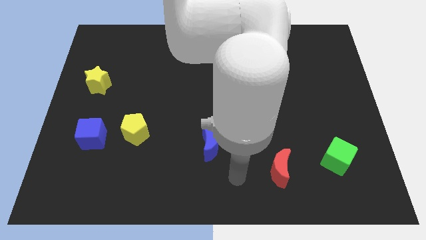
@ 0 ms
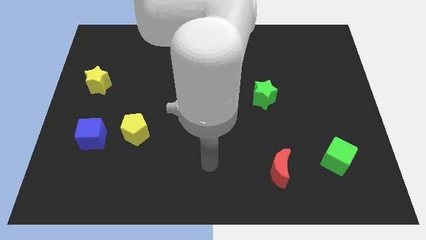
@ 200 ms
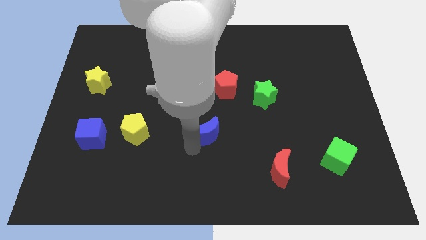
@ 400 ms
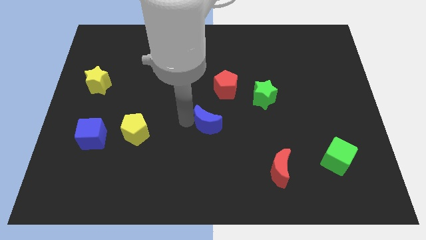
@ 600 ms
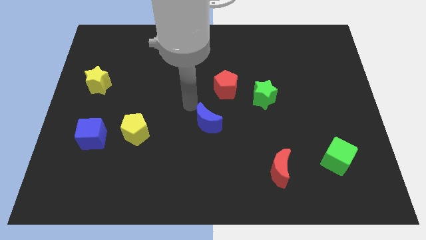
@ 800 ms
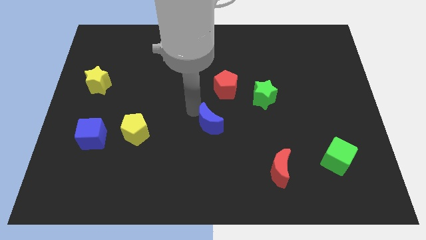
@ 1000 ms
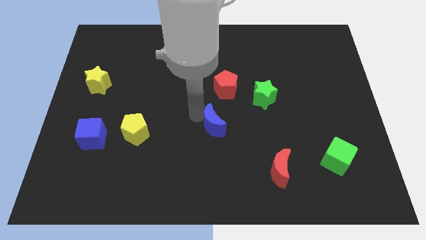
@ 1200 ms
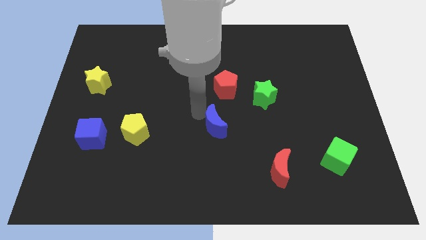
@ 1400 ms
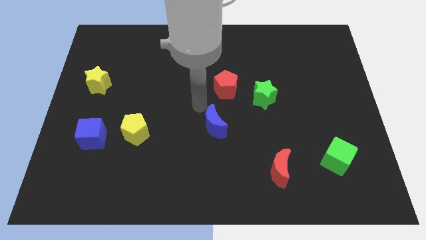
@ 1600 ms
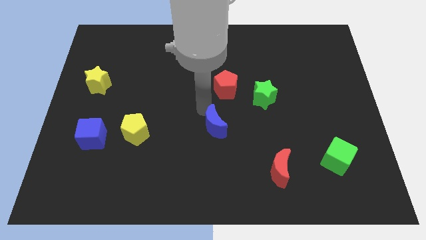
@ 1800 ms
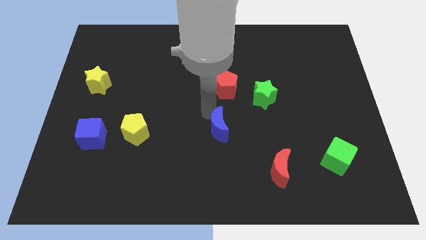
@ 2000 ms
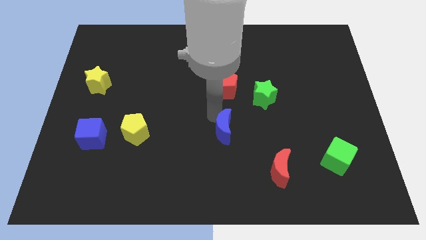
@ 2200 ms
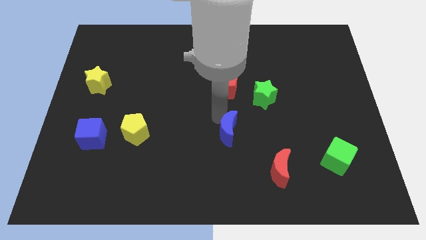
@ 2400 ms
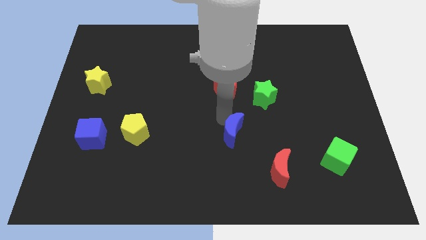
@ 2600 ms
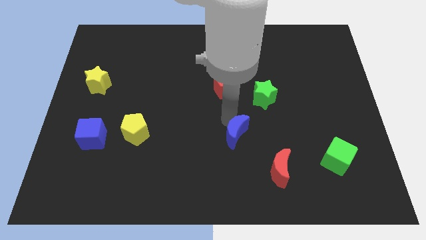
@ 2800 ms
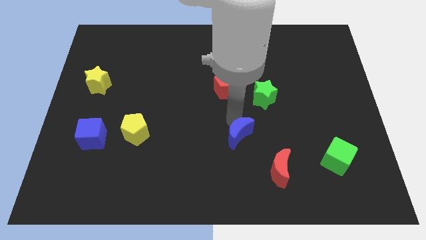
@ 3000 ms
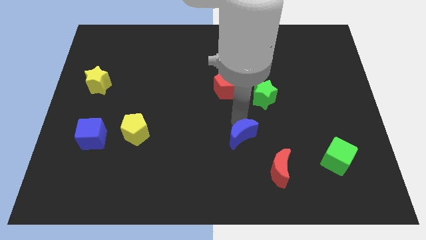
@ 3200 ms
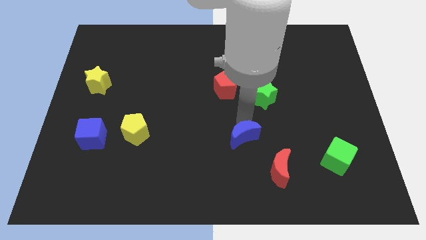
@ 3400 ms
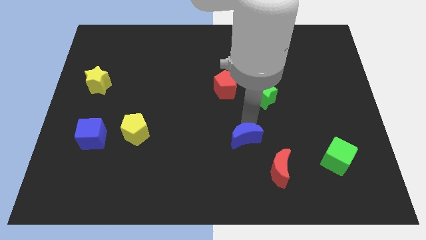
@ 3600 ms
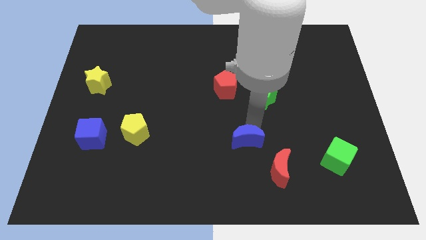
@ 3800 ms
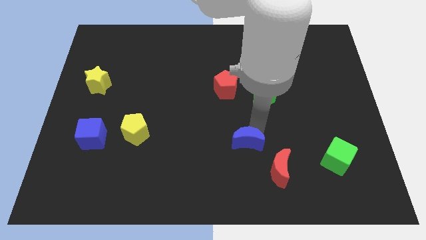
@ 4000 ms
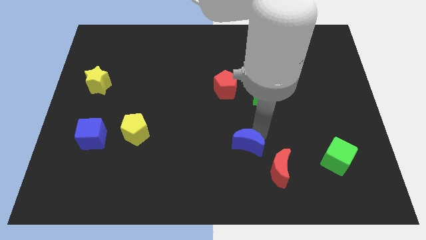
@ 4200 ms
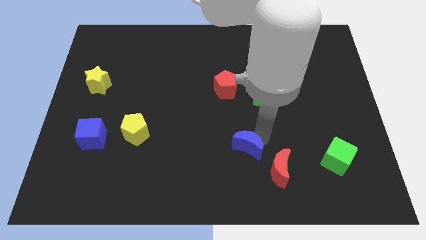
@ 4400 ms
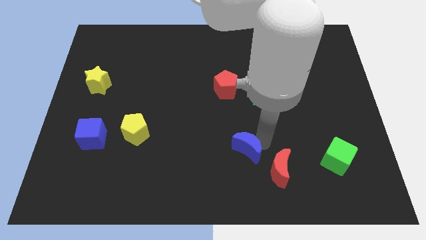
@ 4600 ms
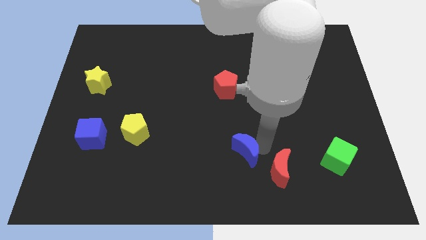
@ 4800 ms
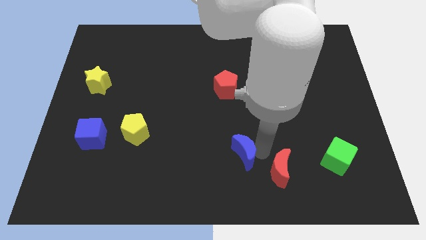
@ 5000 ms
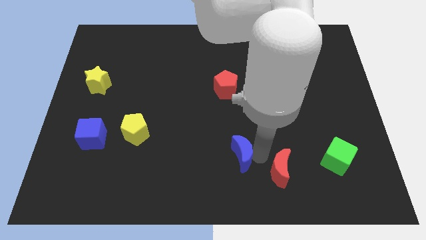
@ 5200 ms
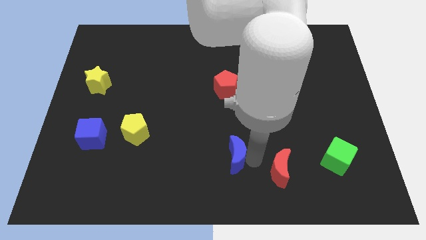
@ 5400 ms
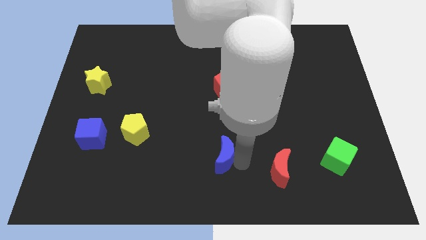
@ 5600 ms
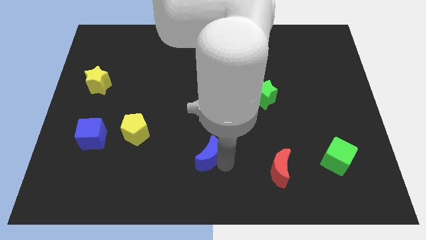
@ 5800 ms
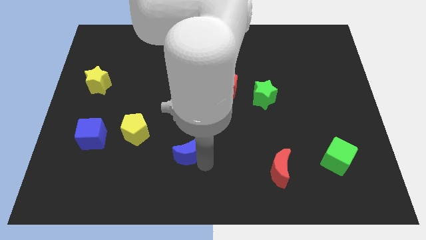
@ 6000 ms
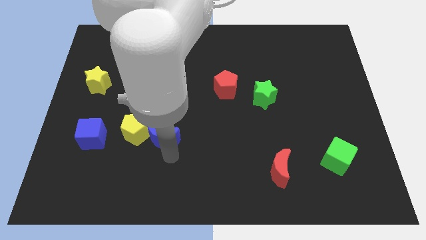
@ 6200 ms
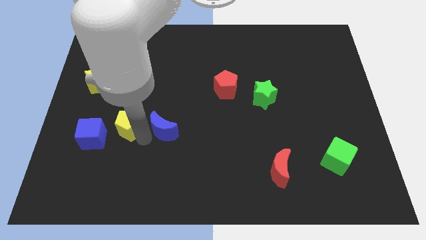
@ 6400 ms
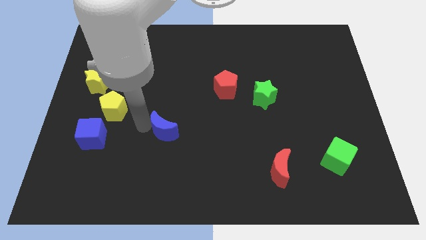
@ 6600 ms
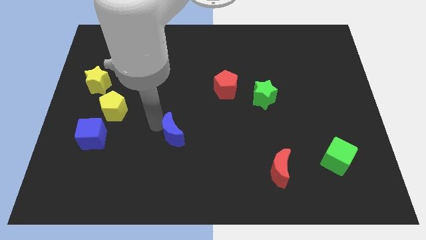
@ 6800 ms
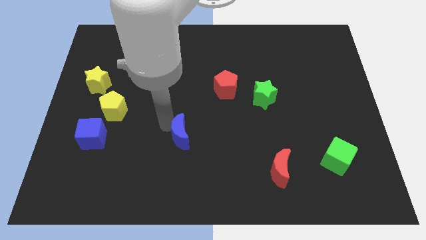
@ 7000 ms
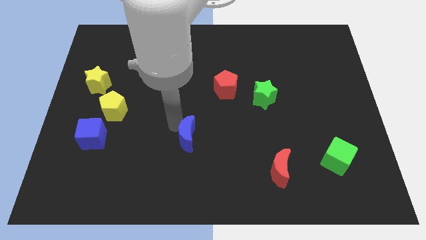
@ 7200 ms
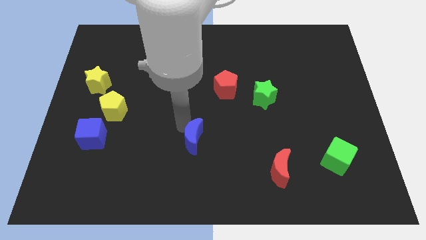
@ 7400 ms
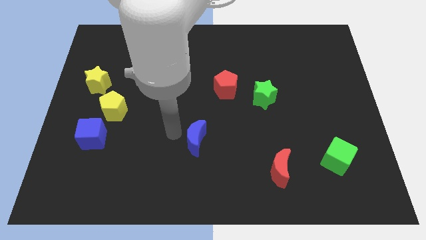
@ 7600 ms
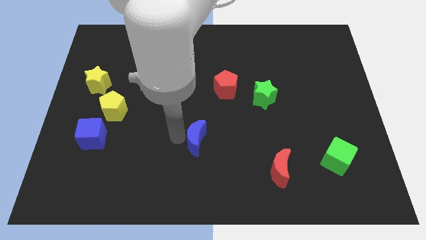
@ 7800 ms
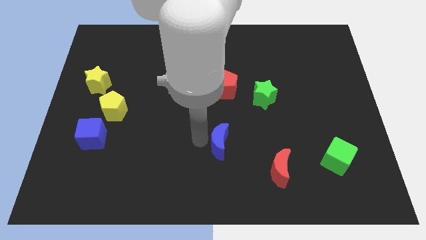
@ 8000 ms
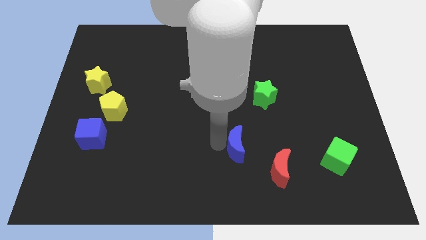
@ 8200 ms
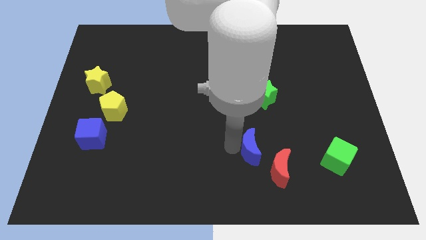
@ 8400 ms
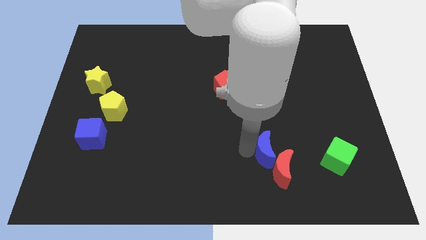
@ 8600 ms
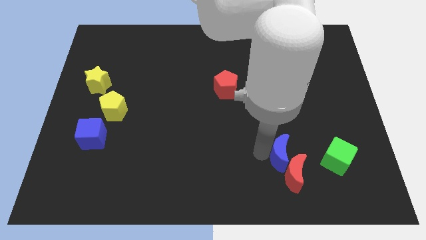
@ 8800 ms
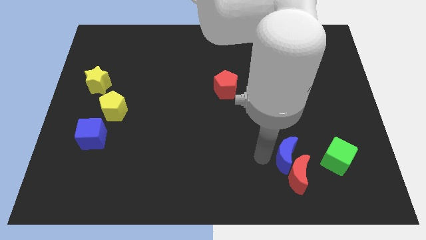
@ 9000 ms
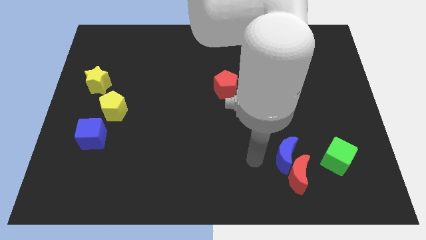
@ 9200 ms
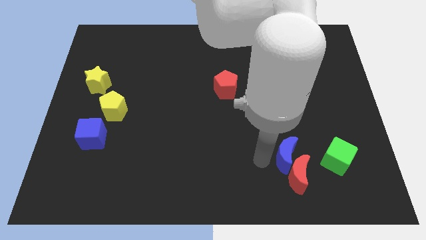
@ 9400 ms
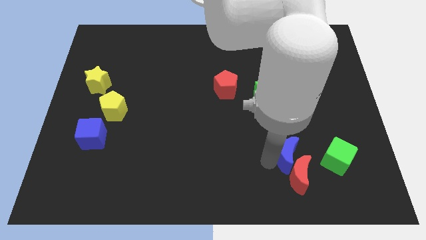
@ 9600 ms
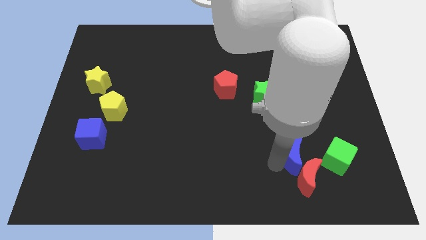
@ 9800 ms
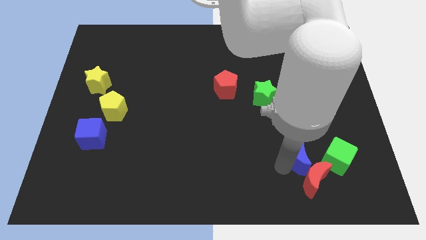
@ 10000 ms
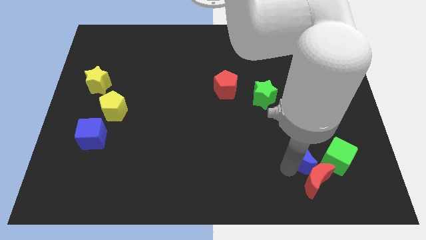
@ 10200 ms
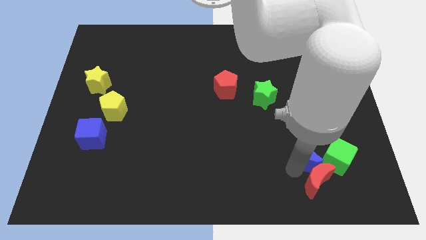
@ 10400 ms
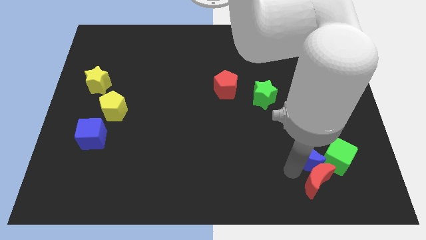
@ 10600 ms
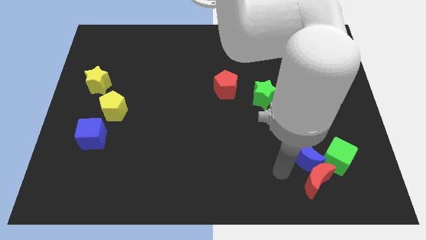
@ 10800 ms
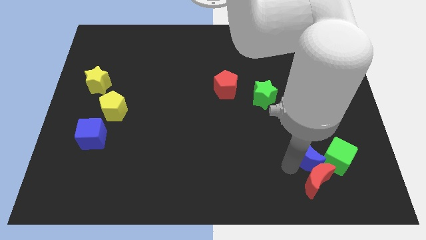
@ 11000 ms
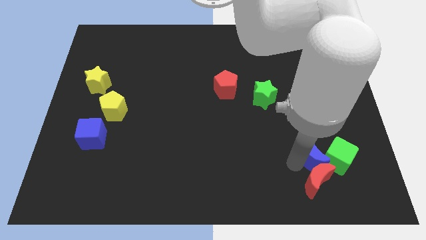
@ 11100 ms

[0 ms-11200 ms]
slide the blue moon next to the green cube

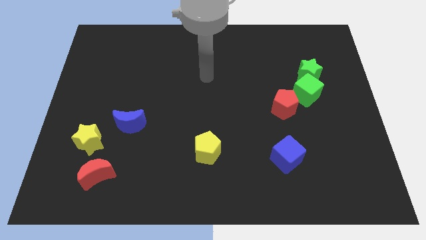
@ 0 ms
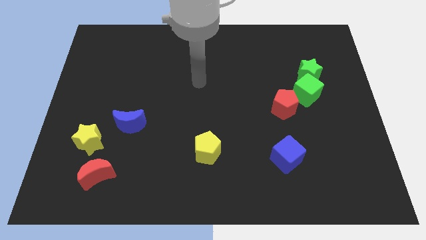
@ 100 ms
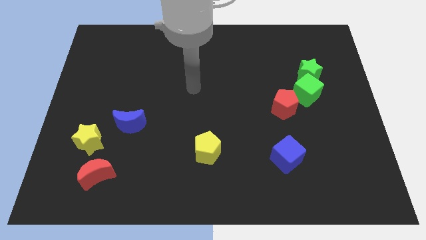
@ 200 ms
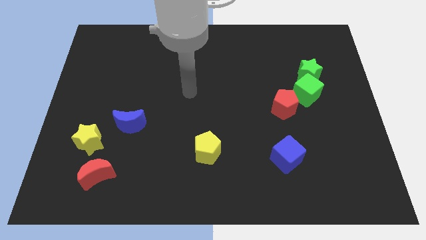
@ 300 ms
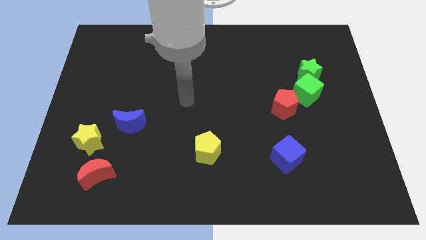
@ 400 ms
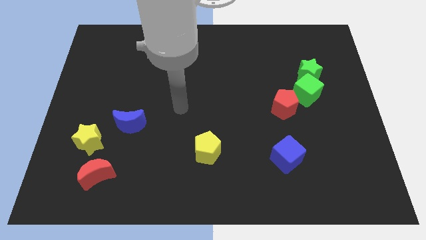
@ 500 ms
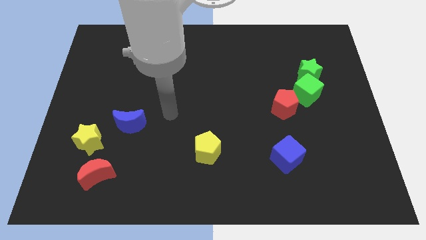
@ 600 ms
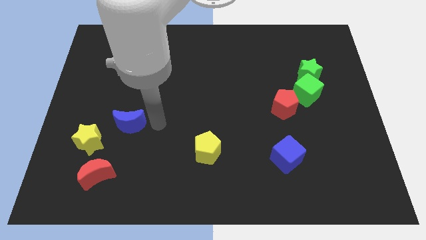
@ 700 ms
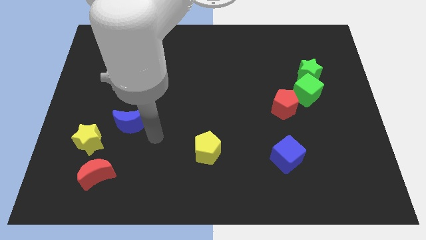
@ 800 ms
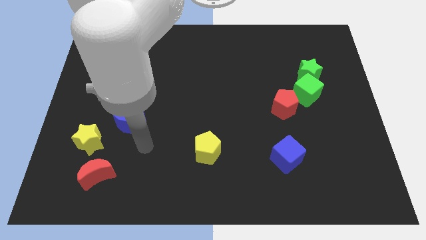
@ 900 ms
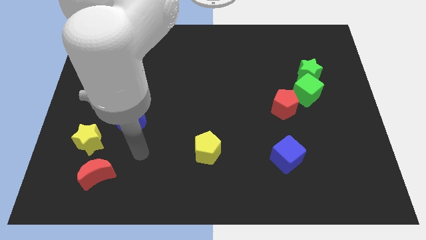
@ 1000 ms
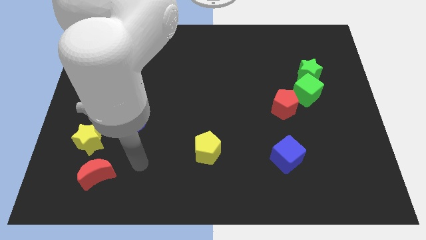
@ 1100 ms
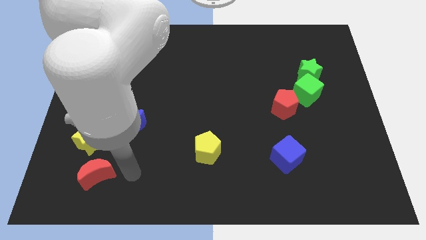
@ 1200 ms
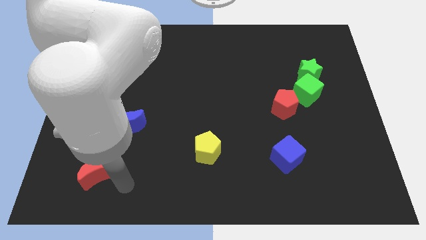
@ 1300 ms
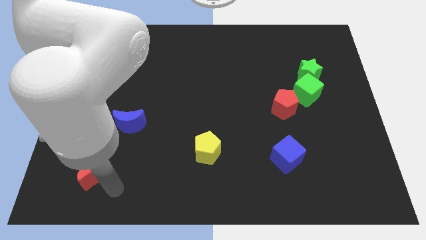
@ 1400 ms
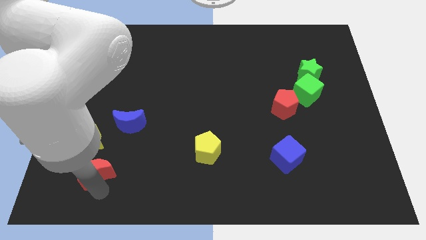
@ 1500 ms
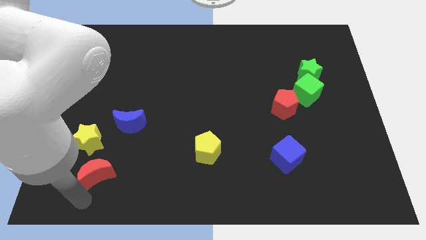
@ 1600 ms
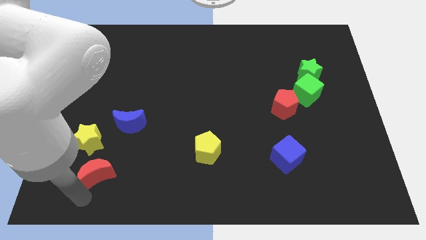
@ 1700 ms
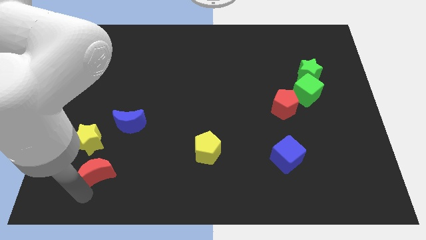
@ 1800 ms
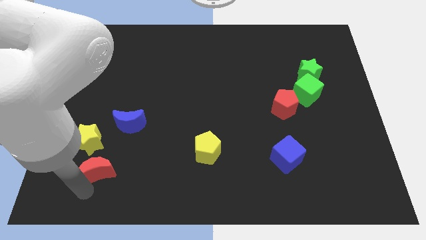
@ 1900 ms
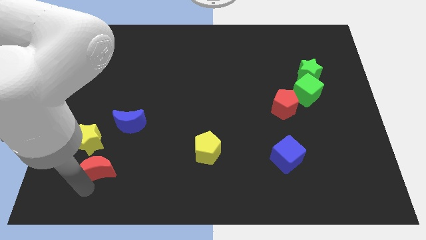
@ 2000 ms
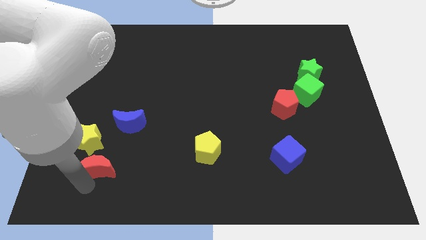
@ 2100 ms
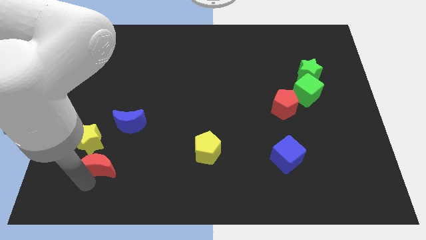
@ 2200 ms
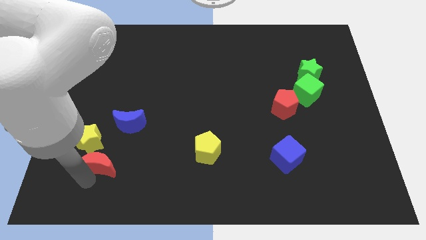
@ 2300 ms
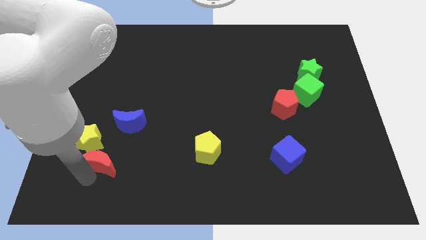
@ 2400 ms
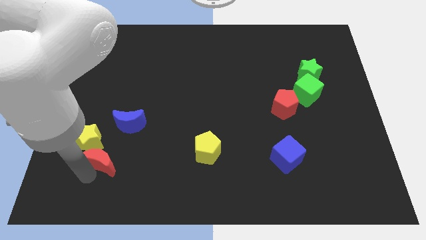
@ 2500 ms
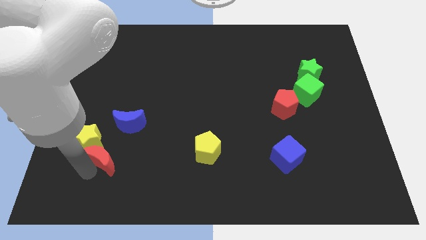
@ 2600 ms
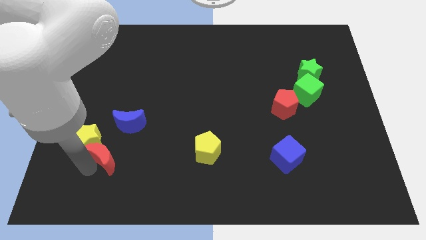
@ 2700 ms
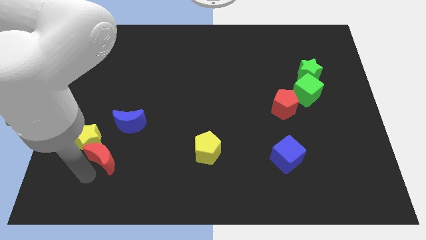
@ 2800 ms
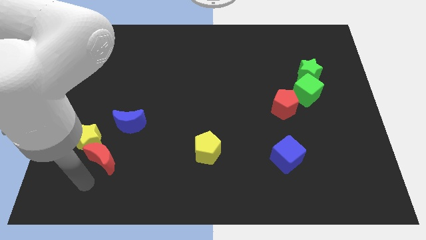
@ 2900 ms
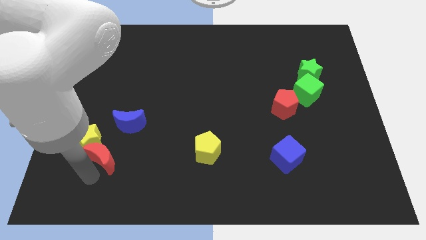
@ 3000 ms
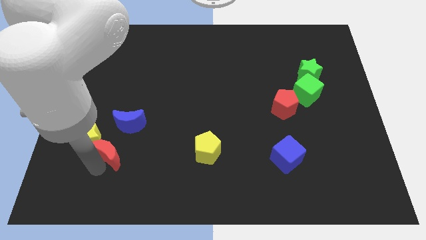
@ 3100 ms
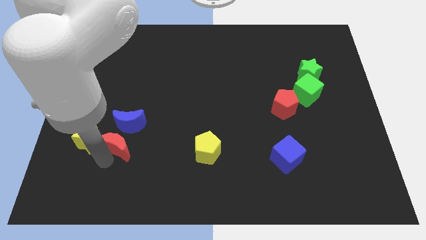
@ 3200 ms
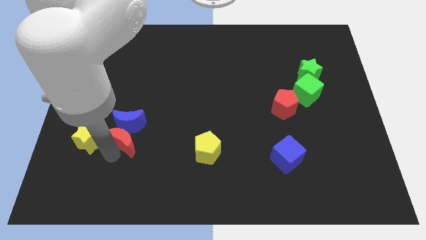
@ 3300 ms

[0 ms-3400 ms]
move the red moon next to the blue moon
